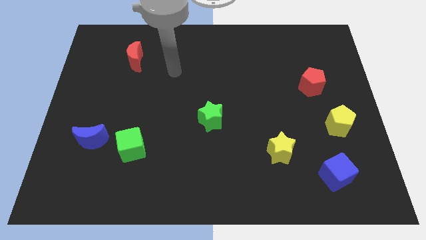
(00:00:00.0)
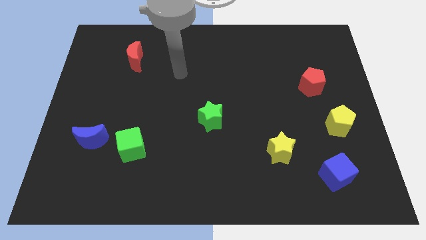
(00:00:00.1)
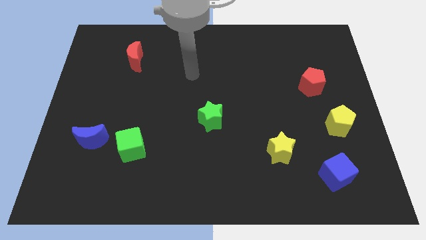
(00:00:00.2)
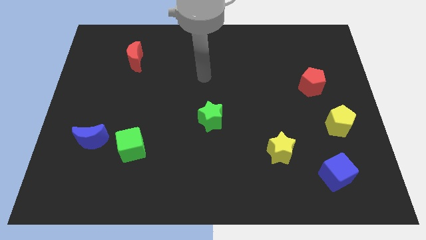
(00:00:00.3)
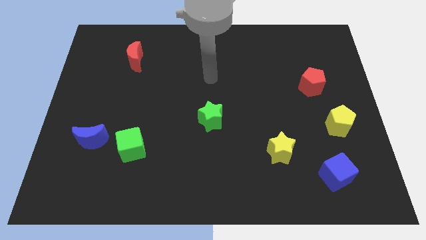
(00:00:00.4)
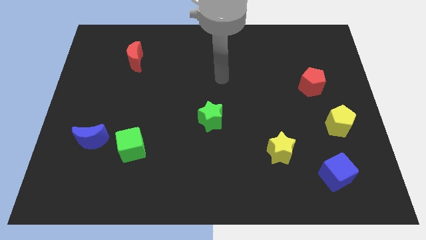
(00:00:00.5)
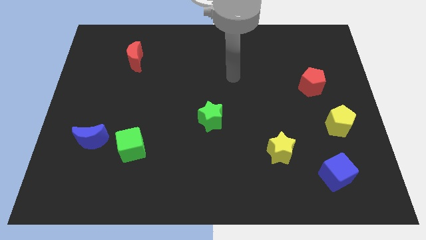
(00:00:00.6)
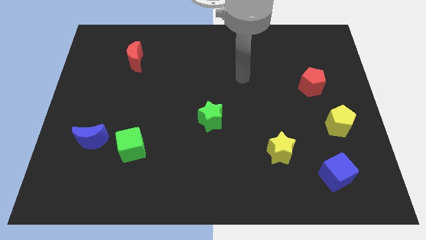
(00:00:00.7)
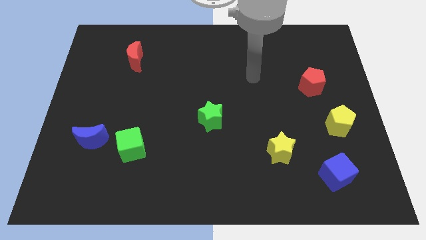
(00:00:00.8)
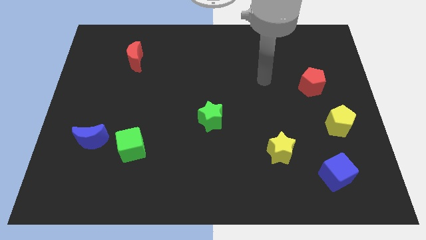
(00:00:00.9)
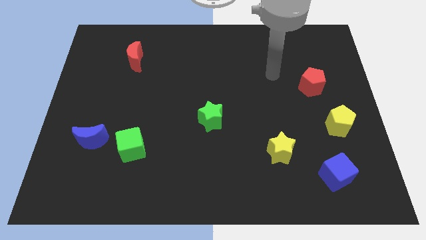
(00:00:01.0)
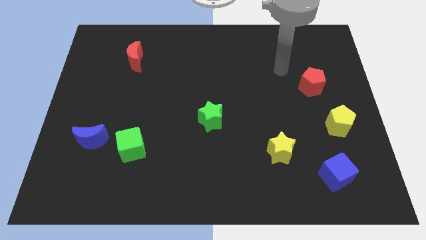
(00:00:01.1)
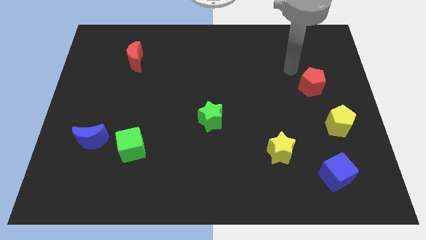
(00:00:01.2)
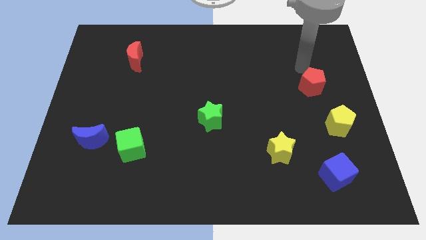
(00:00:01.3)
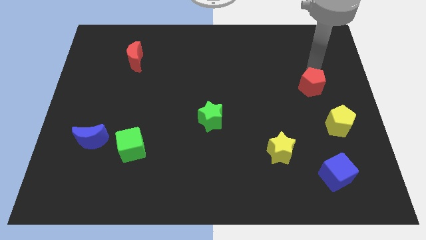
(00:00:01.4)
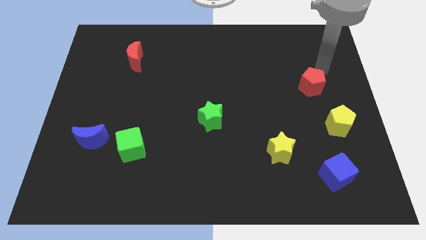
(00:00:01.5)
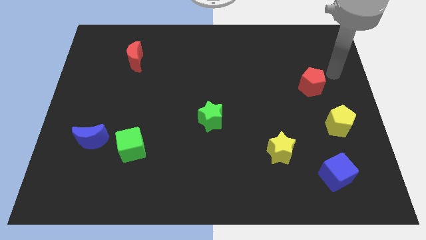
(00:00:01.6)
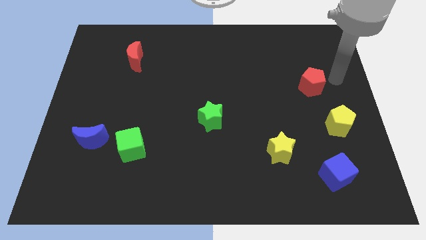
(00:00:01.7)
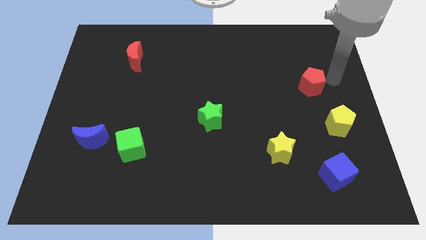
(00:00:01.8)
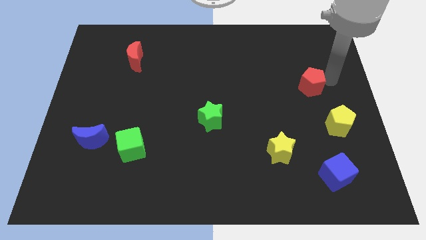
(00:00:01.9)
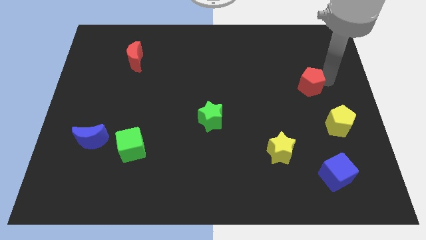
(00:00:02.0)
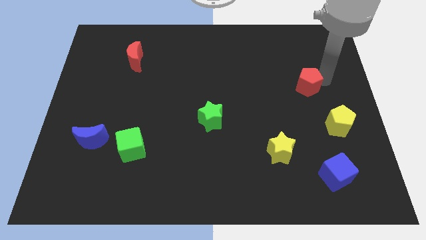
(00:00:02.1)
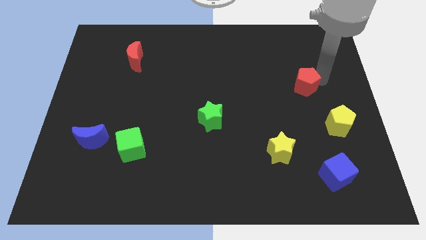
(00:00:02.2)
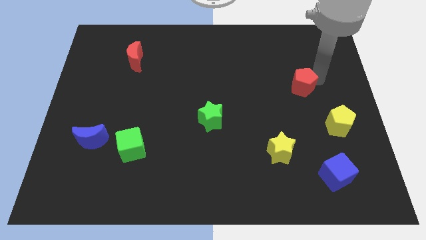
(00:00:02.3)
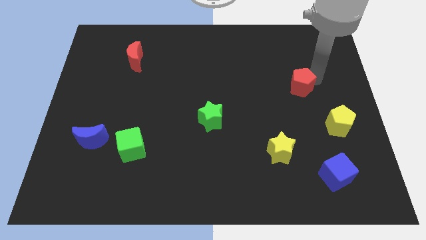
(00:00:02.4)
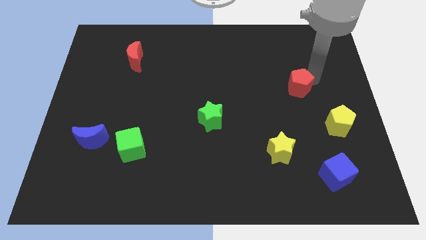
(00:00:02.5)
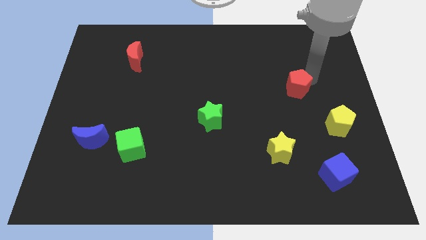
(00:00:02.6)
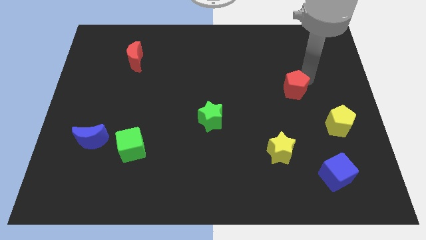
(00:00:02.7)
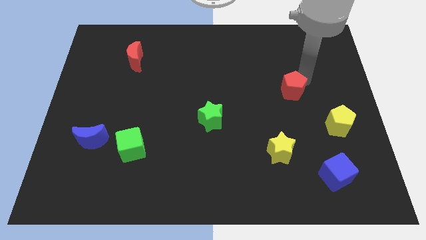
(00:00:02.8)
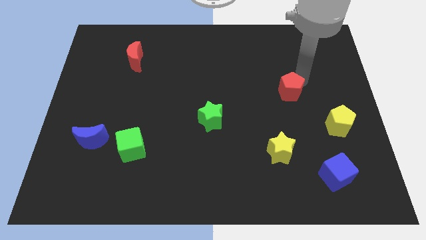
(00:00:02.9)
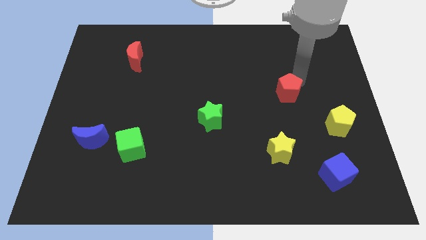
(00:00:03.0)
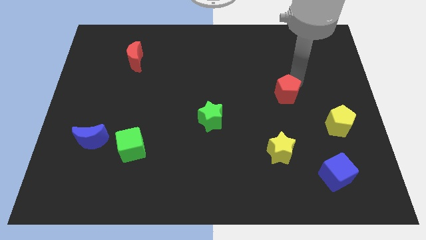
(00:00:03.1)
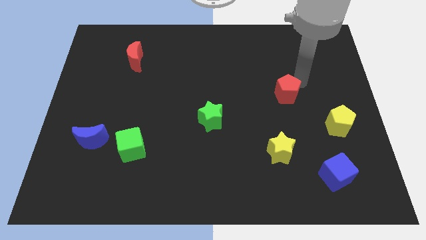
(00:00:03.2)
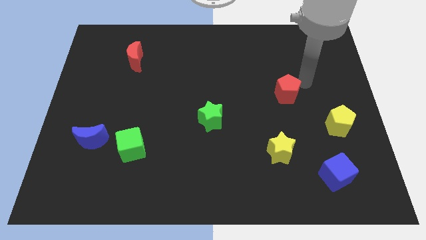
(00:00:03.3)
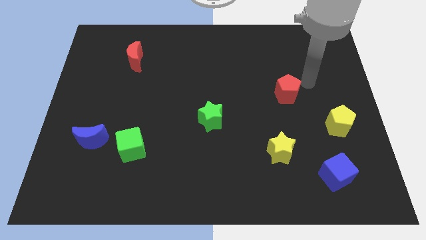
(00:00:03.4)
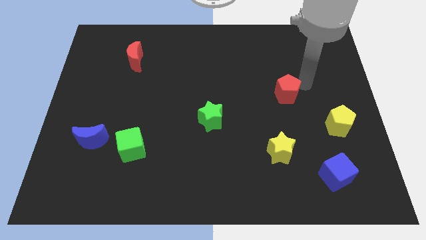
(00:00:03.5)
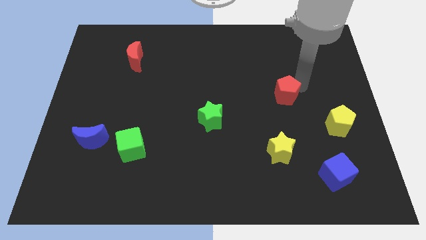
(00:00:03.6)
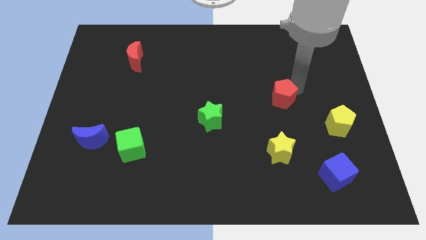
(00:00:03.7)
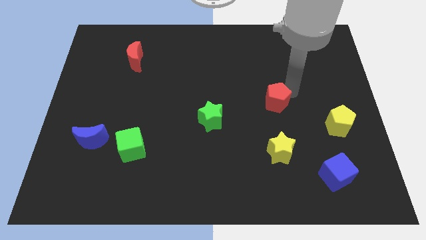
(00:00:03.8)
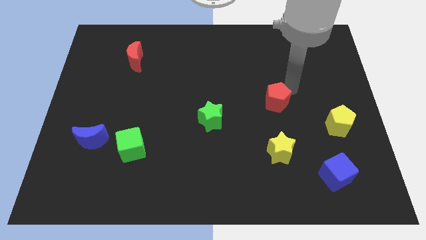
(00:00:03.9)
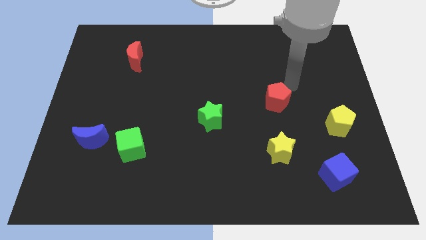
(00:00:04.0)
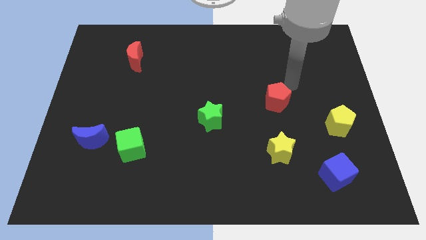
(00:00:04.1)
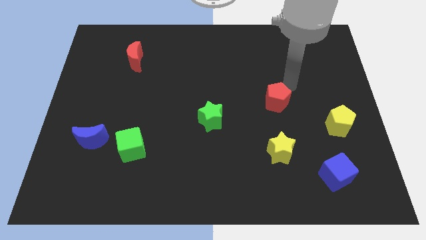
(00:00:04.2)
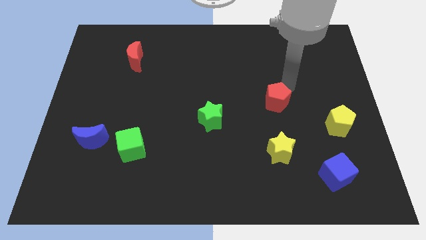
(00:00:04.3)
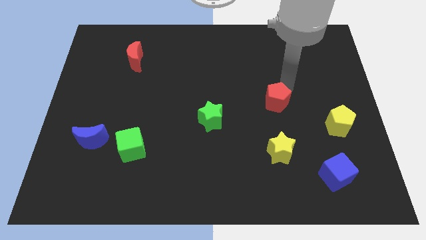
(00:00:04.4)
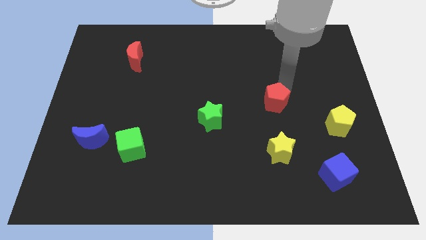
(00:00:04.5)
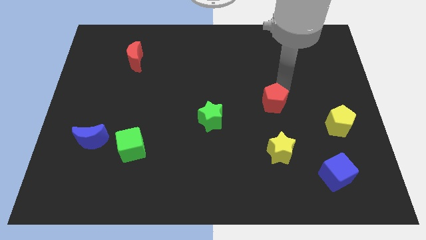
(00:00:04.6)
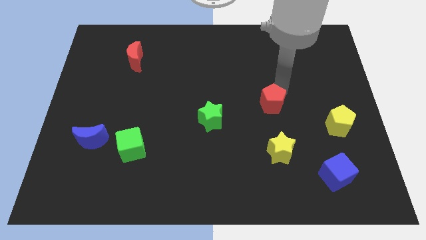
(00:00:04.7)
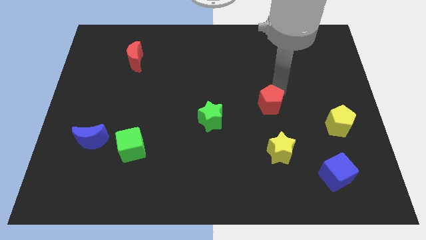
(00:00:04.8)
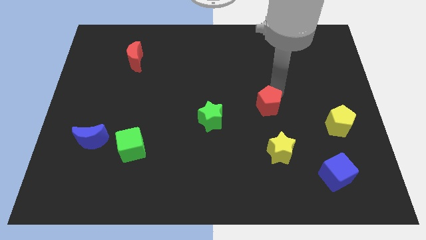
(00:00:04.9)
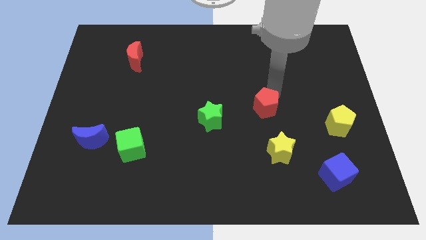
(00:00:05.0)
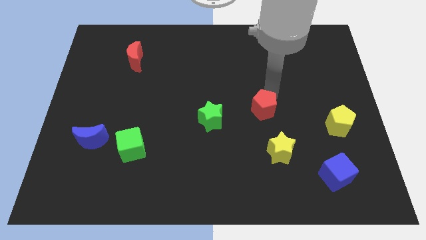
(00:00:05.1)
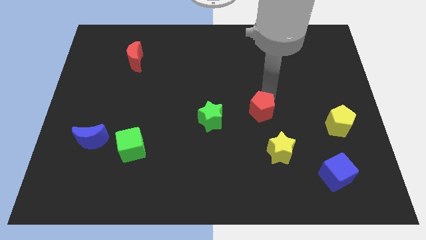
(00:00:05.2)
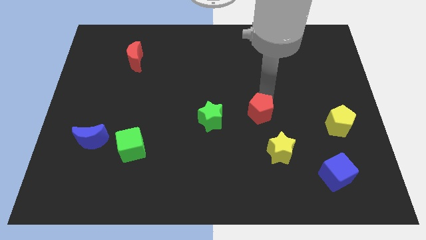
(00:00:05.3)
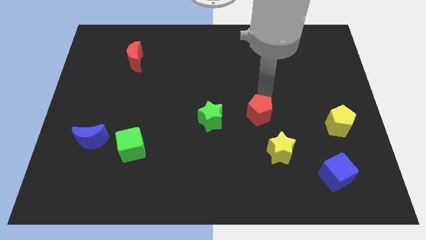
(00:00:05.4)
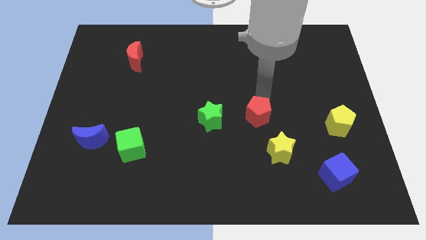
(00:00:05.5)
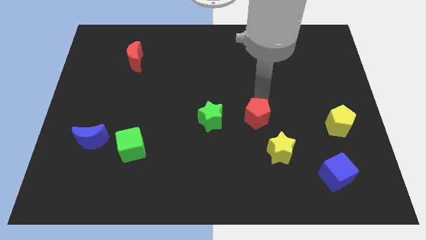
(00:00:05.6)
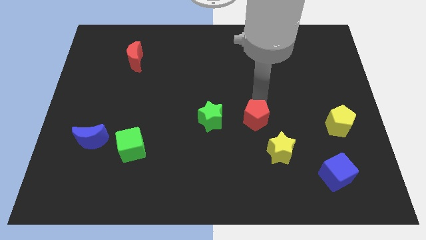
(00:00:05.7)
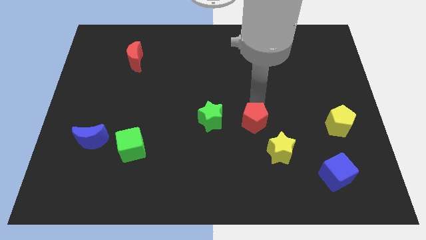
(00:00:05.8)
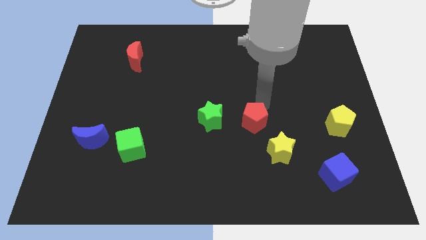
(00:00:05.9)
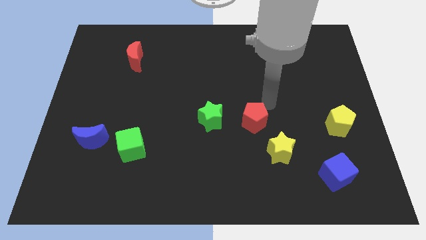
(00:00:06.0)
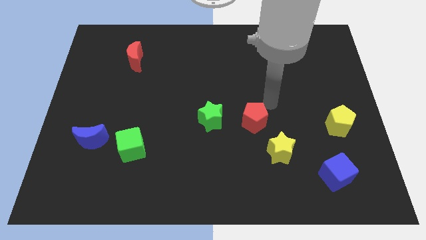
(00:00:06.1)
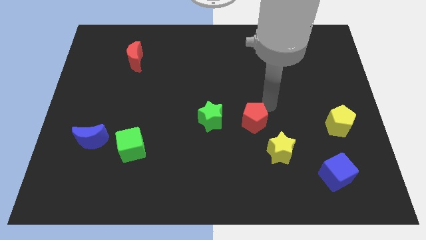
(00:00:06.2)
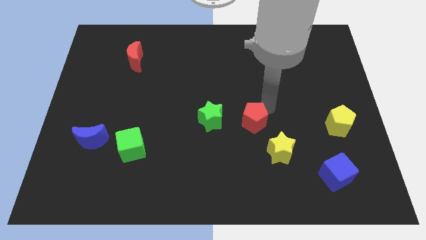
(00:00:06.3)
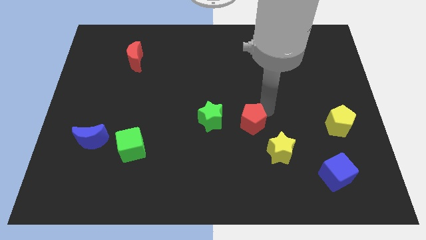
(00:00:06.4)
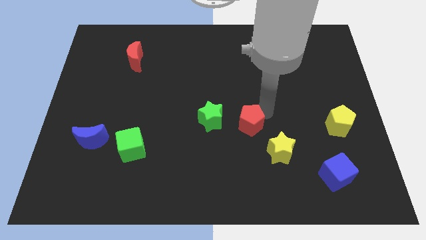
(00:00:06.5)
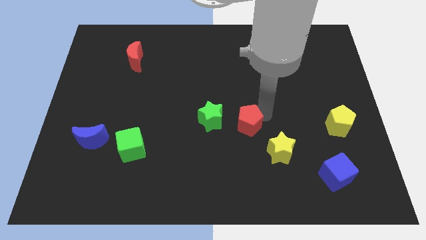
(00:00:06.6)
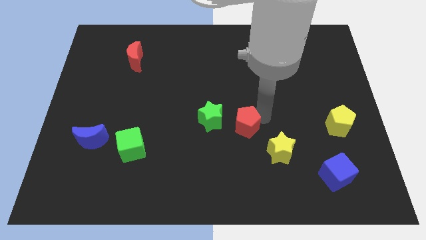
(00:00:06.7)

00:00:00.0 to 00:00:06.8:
move the red pentagon downwards and then left

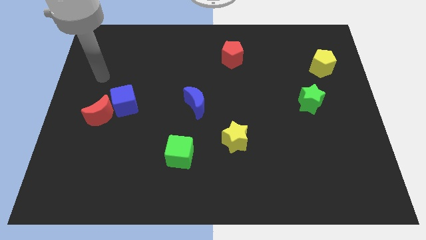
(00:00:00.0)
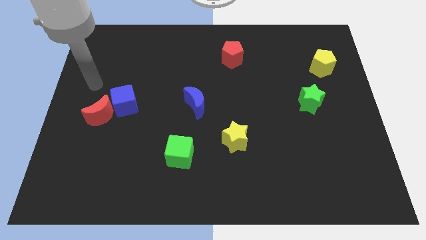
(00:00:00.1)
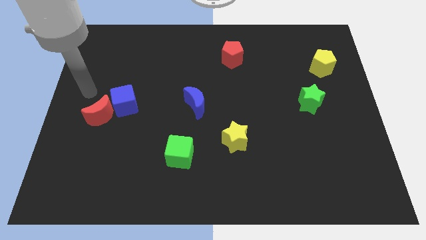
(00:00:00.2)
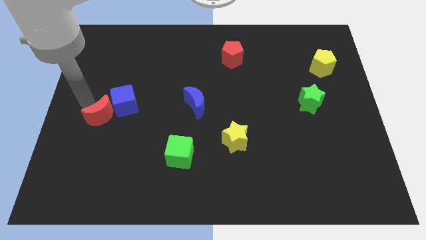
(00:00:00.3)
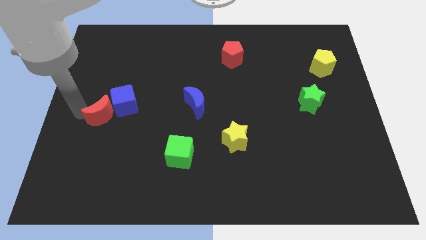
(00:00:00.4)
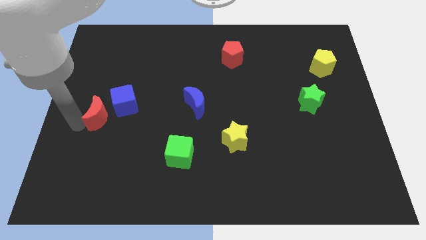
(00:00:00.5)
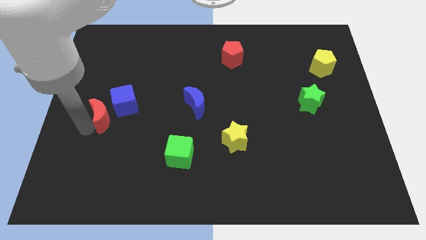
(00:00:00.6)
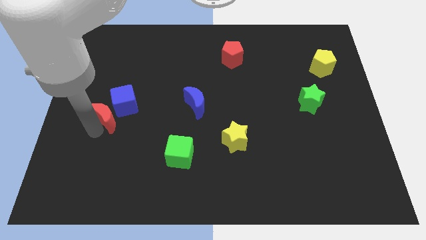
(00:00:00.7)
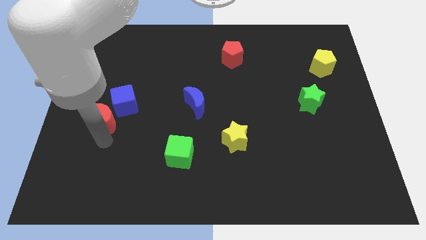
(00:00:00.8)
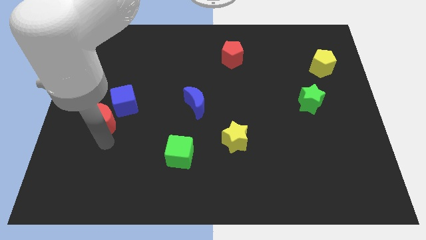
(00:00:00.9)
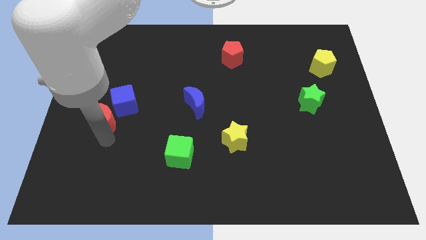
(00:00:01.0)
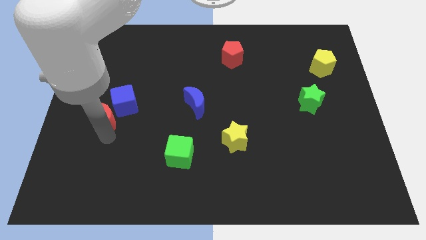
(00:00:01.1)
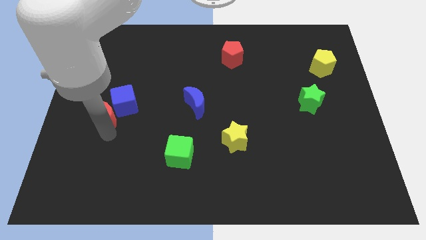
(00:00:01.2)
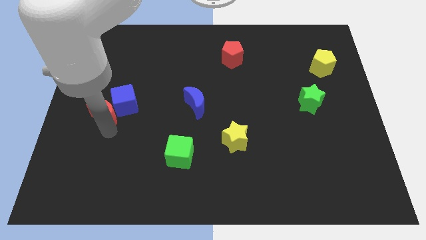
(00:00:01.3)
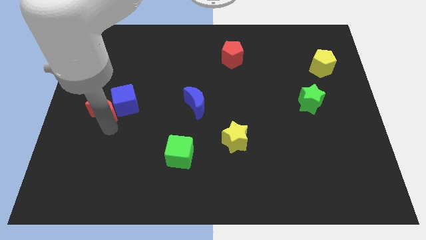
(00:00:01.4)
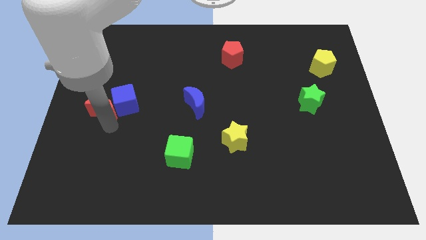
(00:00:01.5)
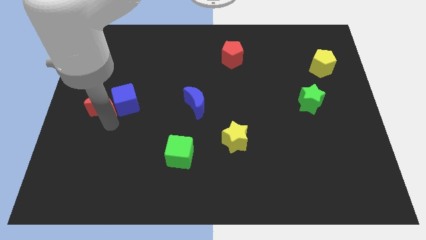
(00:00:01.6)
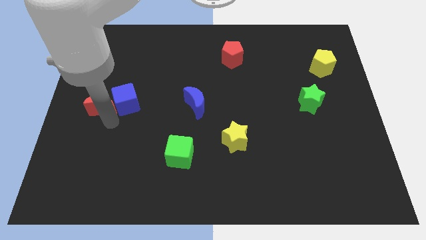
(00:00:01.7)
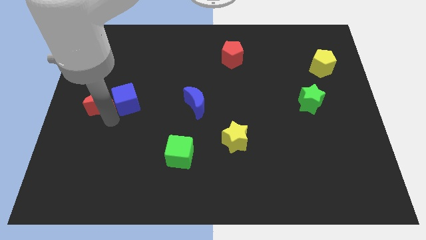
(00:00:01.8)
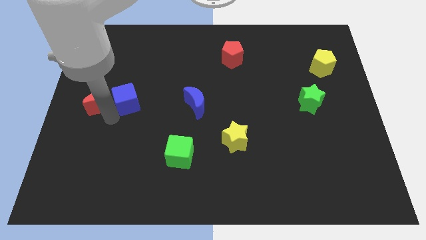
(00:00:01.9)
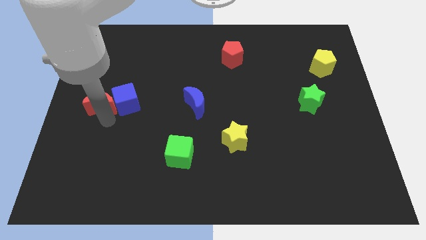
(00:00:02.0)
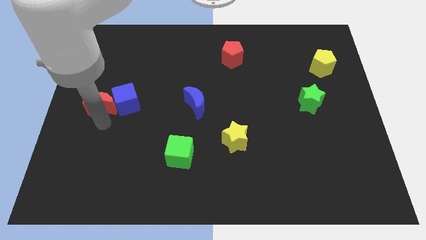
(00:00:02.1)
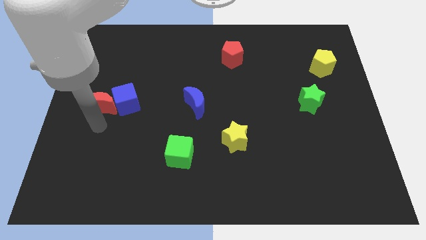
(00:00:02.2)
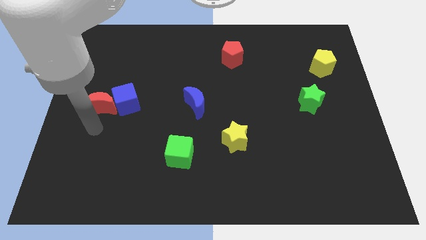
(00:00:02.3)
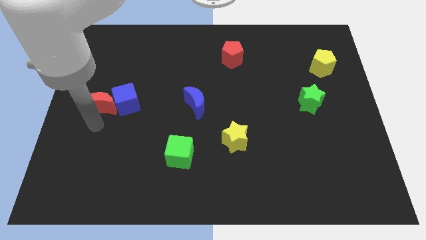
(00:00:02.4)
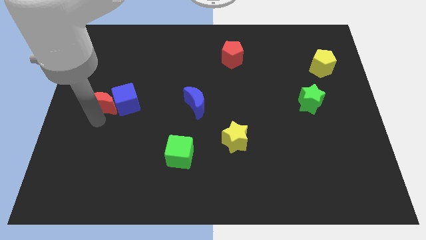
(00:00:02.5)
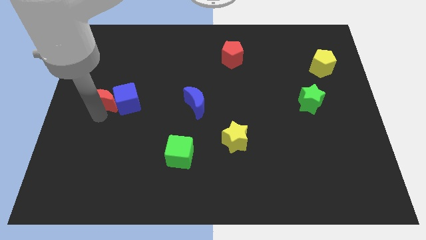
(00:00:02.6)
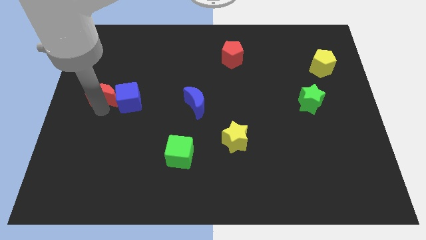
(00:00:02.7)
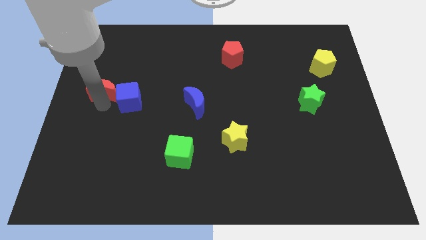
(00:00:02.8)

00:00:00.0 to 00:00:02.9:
move the red moon upwards a bit
